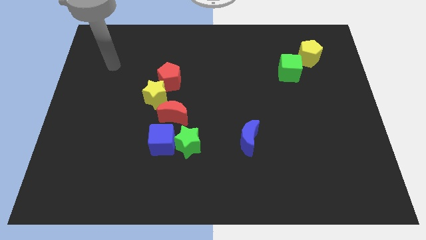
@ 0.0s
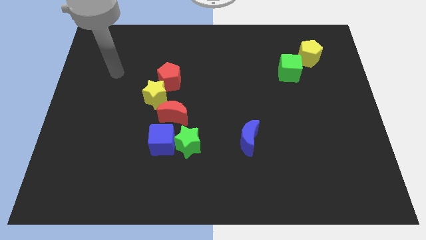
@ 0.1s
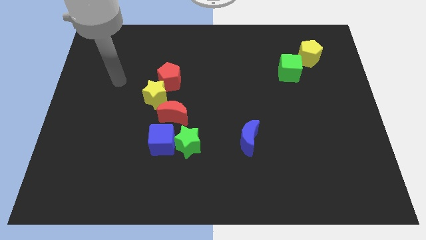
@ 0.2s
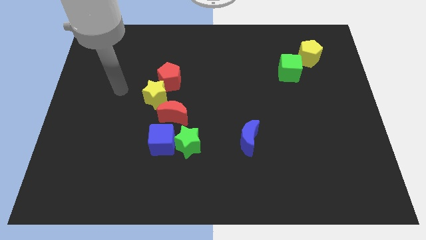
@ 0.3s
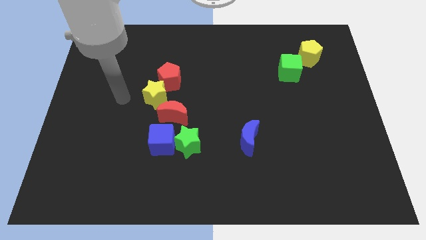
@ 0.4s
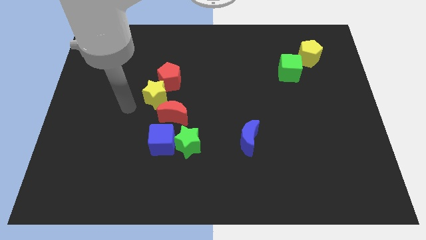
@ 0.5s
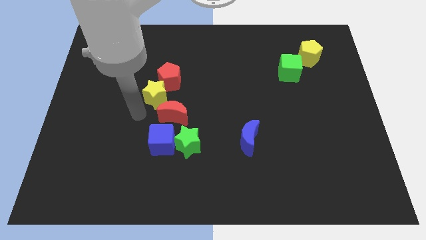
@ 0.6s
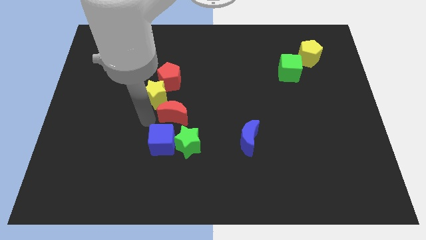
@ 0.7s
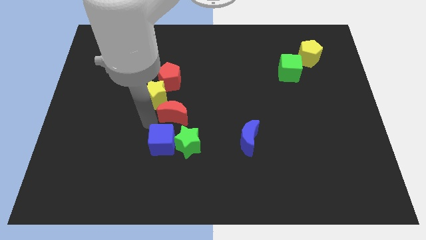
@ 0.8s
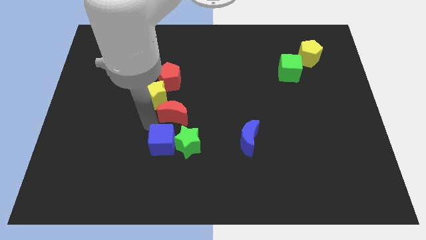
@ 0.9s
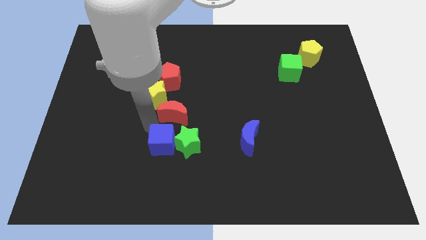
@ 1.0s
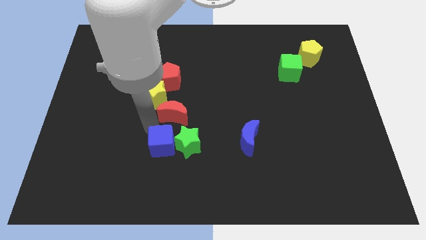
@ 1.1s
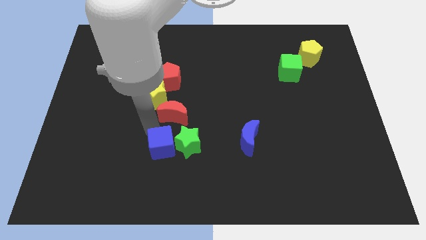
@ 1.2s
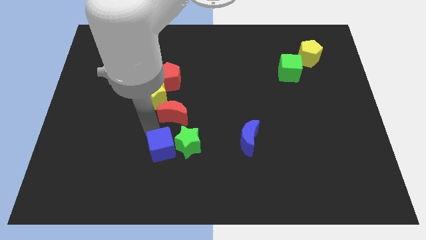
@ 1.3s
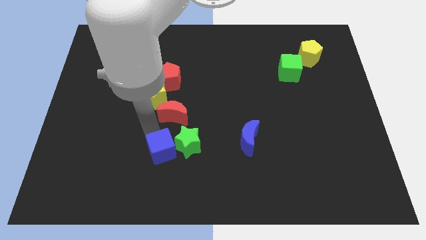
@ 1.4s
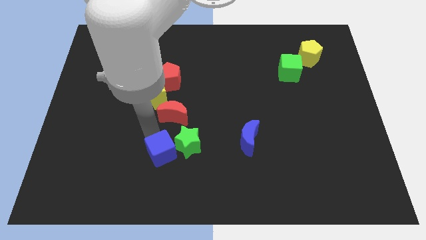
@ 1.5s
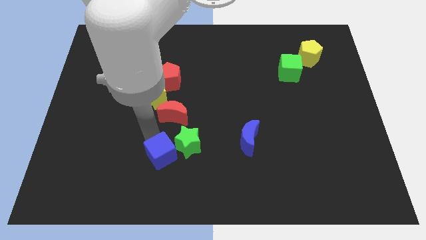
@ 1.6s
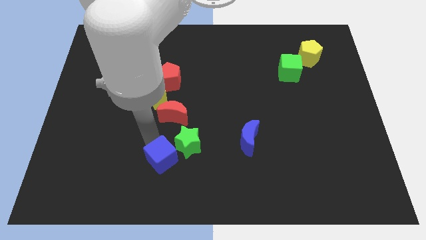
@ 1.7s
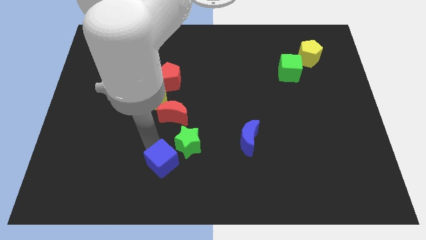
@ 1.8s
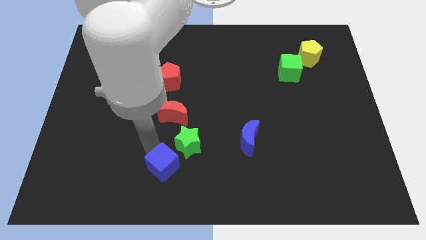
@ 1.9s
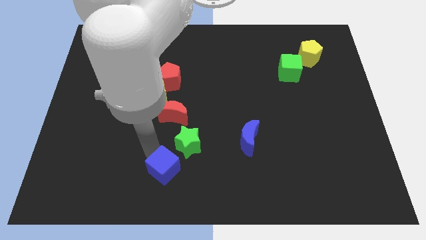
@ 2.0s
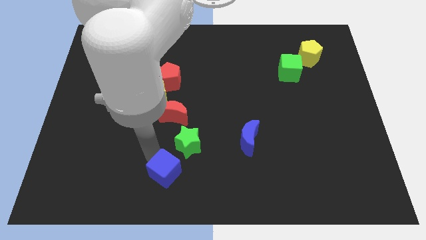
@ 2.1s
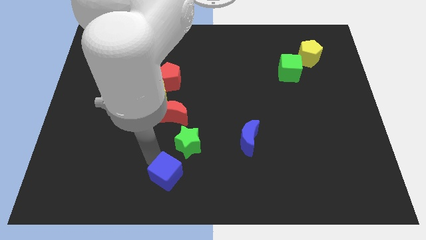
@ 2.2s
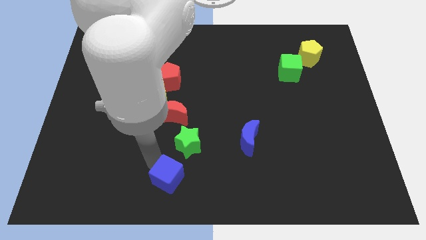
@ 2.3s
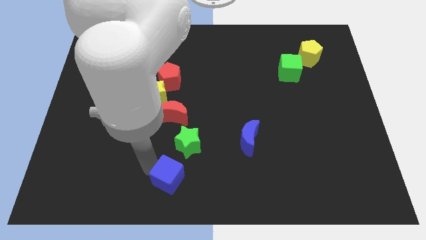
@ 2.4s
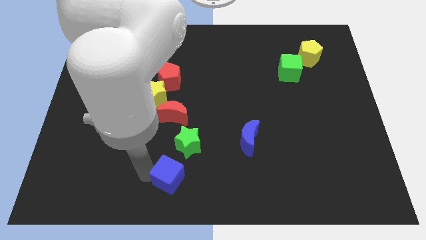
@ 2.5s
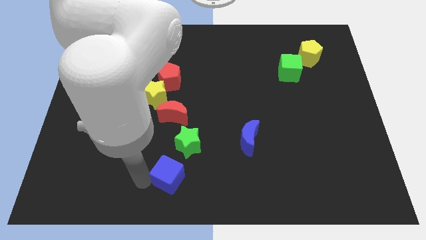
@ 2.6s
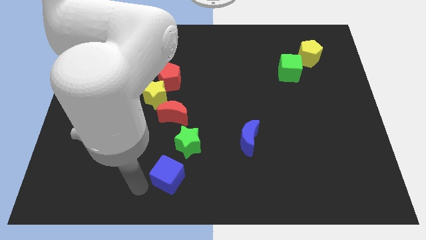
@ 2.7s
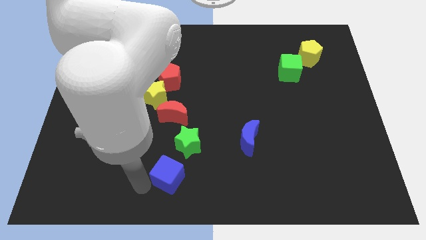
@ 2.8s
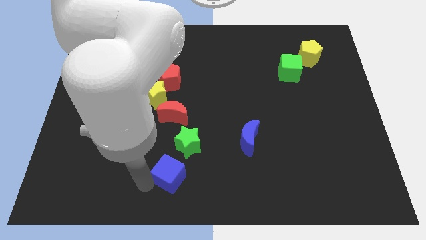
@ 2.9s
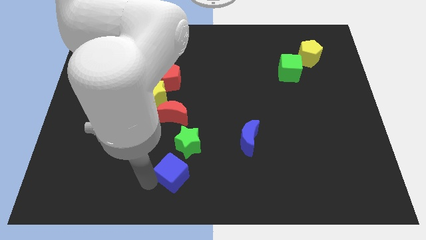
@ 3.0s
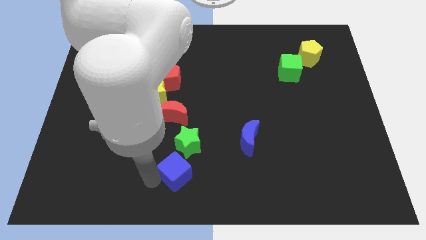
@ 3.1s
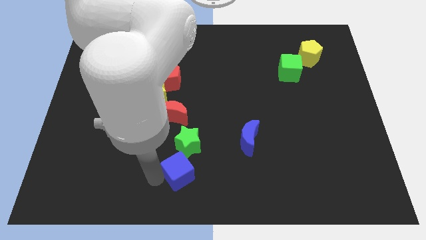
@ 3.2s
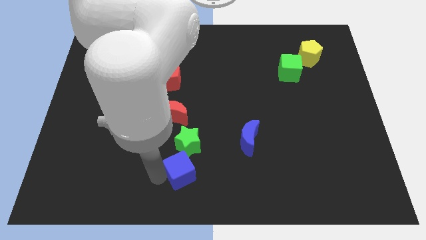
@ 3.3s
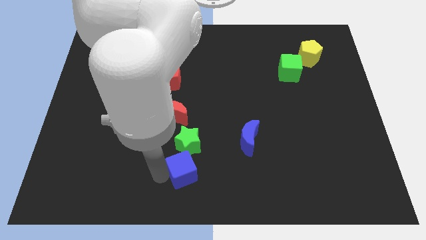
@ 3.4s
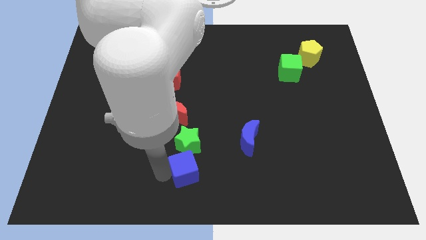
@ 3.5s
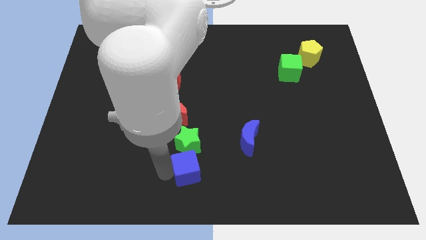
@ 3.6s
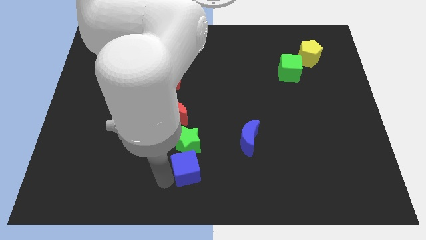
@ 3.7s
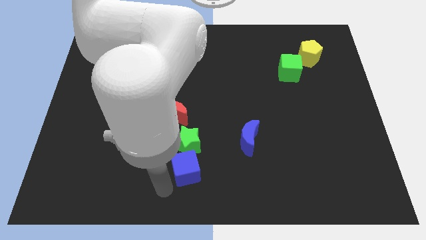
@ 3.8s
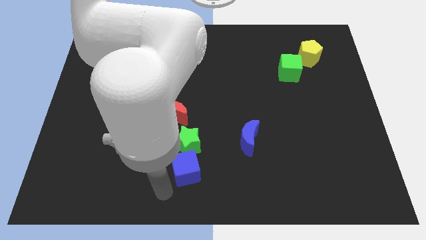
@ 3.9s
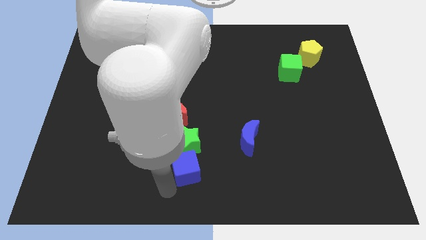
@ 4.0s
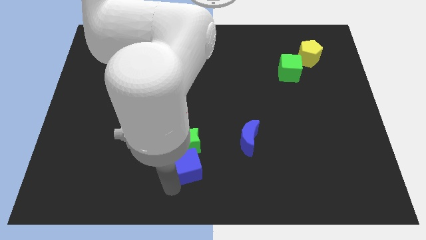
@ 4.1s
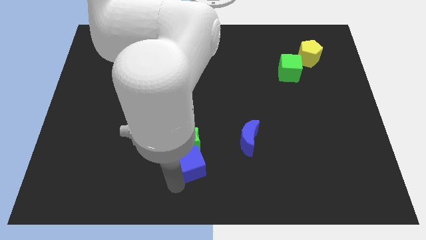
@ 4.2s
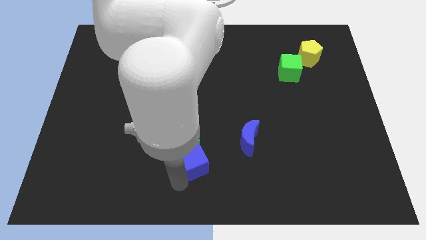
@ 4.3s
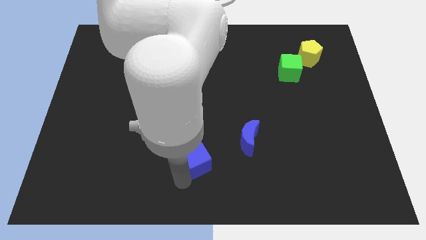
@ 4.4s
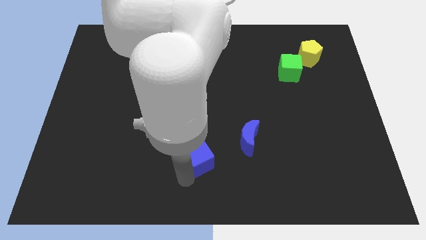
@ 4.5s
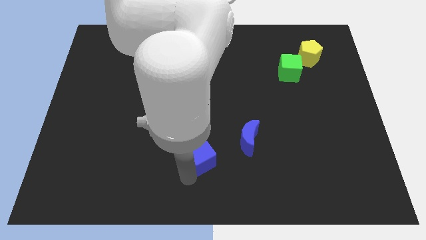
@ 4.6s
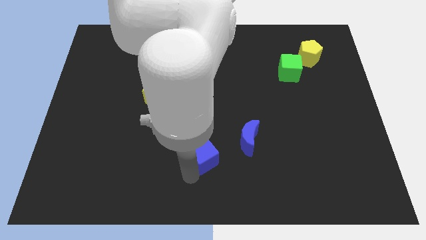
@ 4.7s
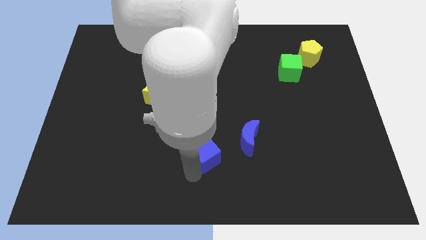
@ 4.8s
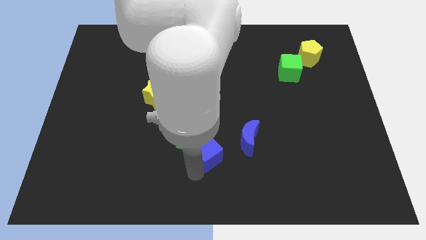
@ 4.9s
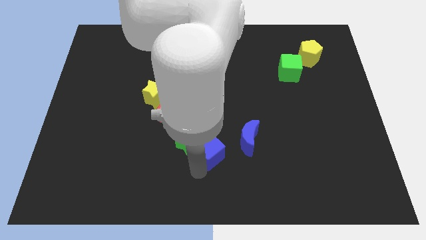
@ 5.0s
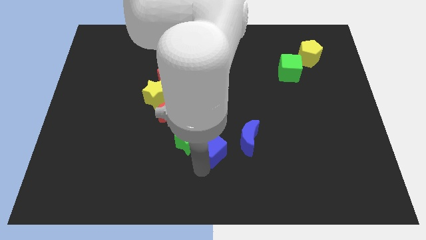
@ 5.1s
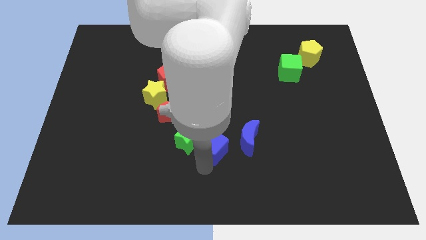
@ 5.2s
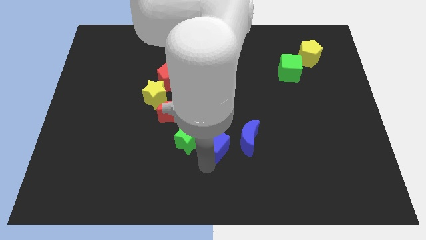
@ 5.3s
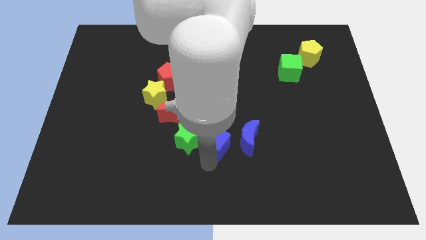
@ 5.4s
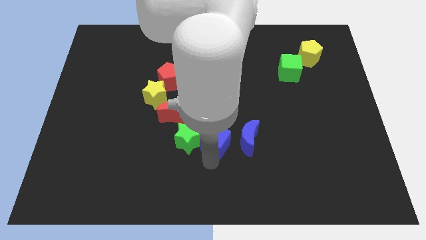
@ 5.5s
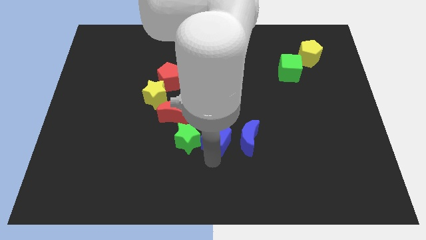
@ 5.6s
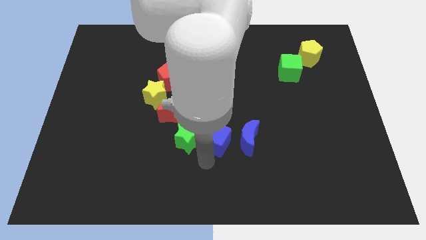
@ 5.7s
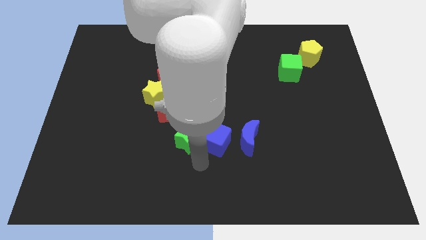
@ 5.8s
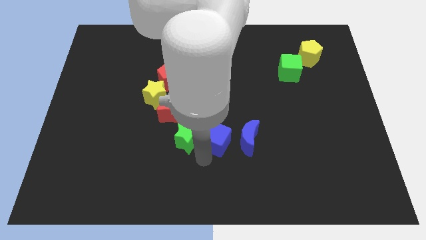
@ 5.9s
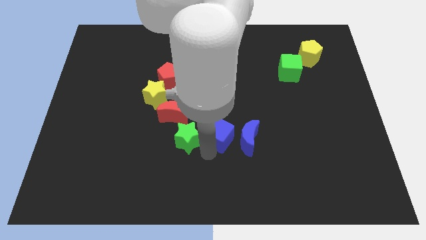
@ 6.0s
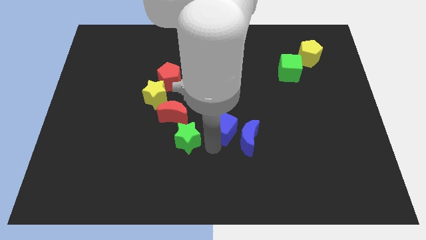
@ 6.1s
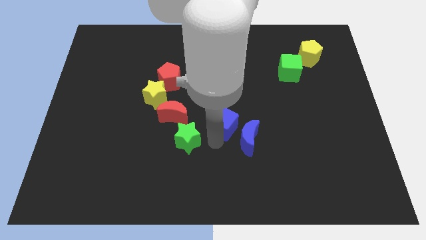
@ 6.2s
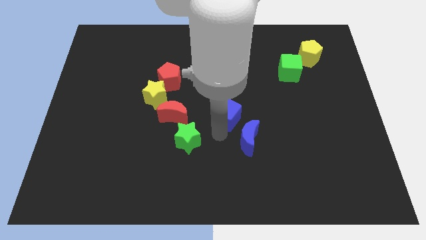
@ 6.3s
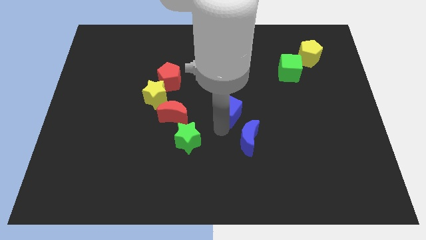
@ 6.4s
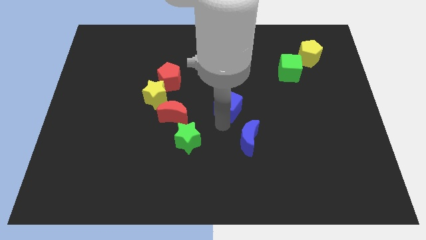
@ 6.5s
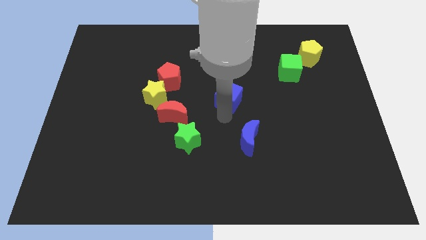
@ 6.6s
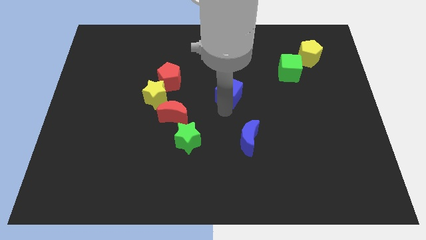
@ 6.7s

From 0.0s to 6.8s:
slide the blue cube diagonally up and right

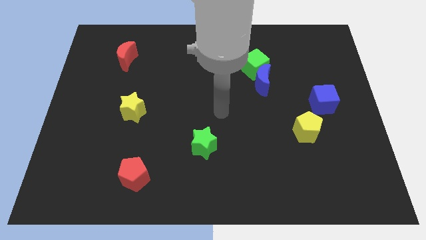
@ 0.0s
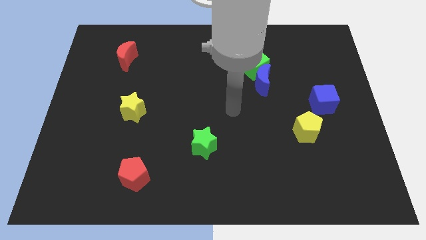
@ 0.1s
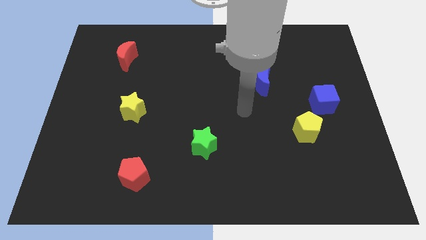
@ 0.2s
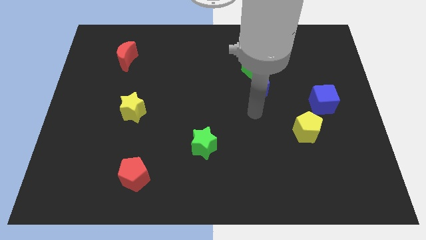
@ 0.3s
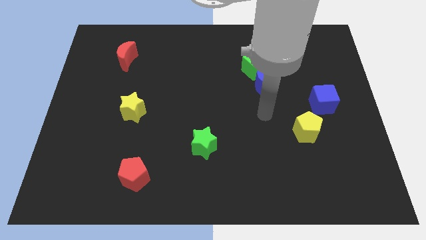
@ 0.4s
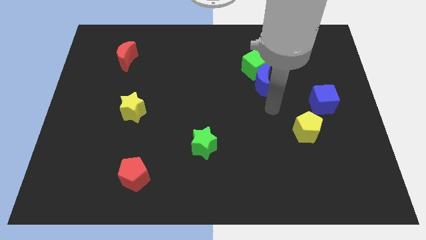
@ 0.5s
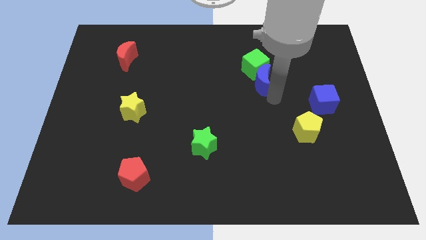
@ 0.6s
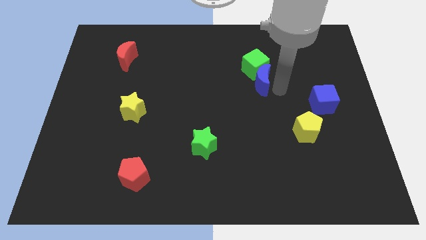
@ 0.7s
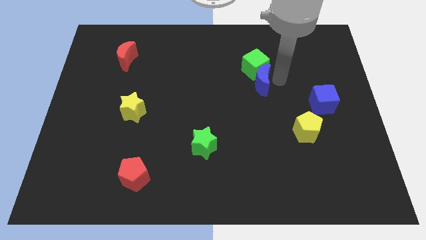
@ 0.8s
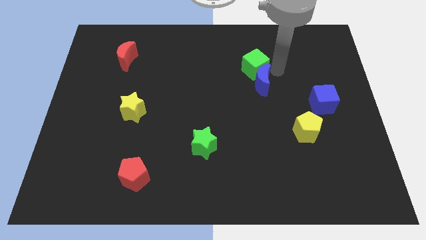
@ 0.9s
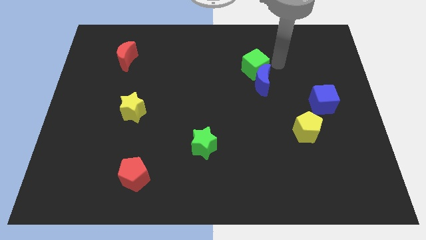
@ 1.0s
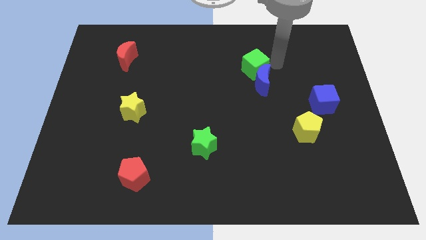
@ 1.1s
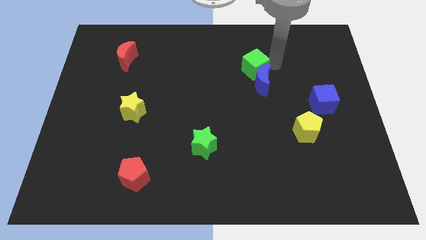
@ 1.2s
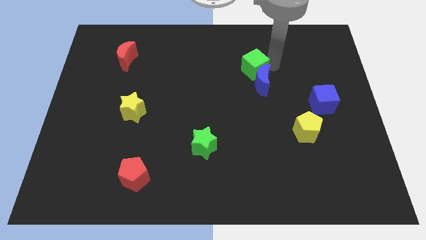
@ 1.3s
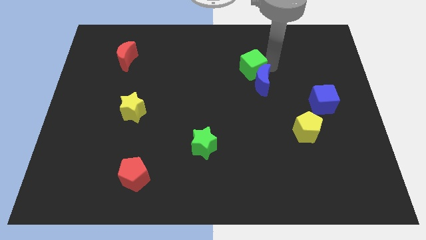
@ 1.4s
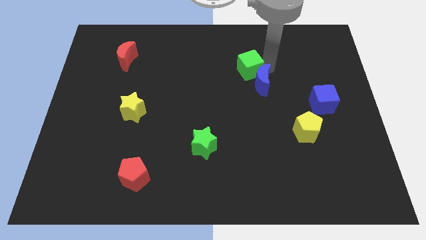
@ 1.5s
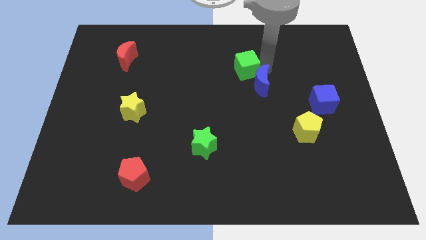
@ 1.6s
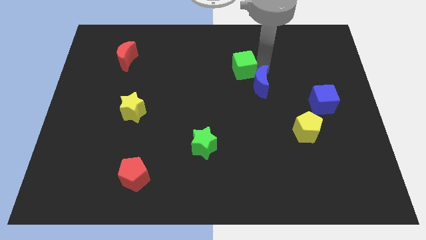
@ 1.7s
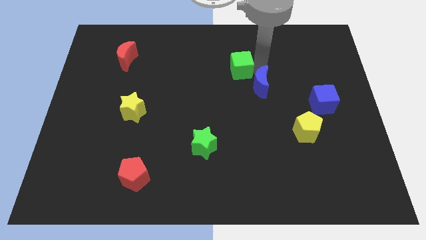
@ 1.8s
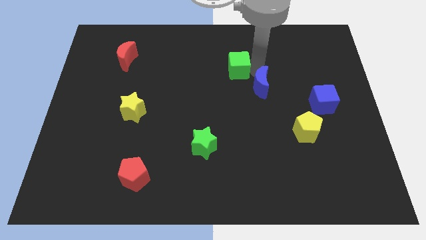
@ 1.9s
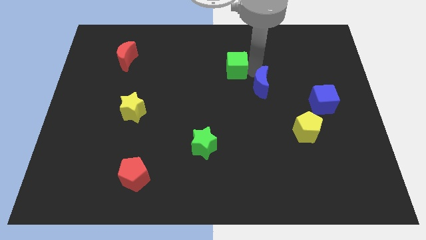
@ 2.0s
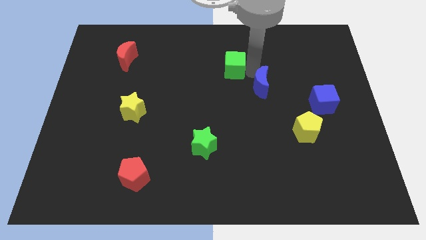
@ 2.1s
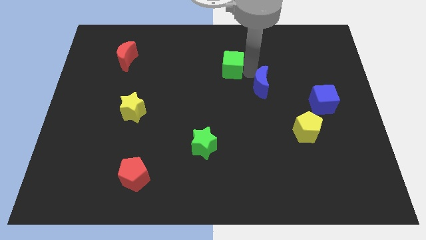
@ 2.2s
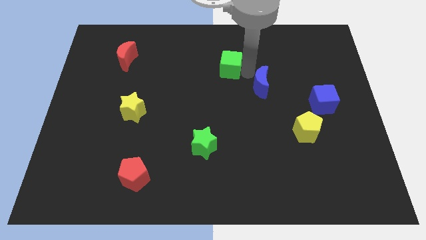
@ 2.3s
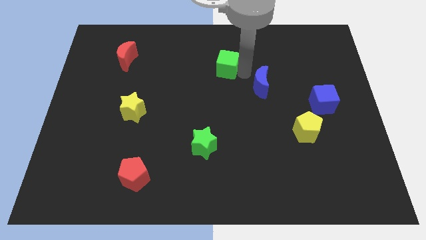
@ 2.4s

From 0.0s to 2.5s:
move the green cube a little bit to the left
